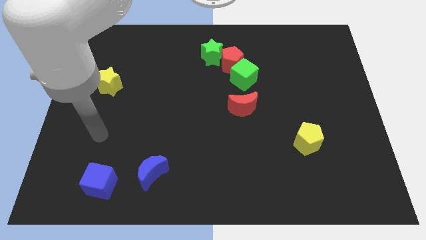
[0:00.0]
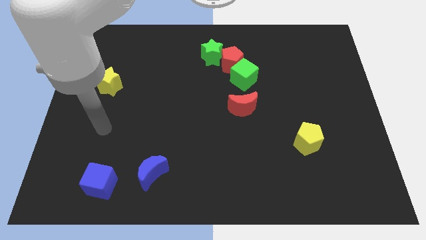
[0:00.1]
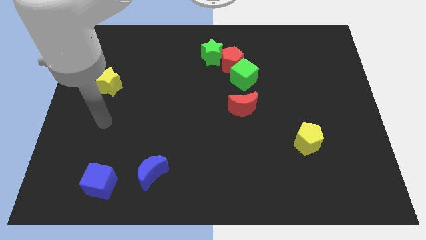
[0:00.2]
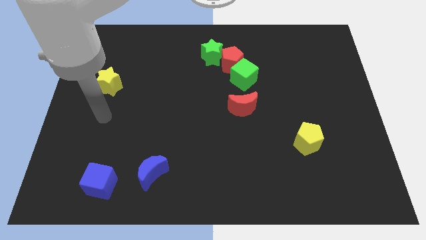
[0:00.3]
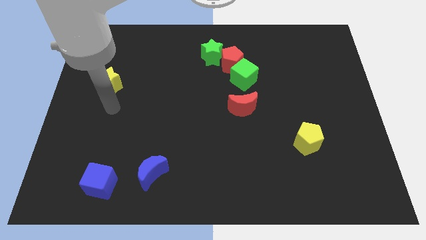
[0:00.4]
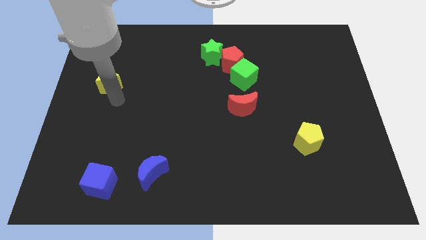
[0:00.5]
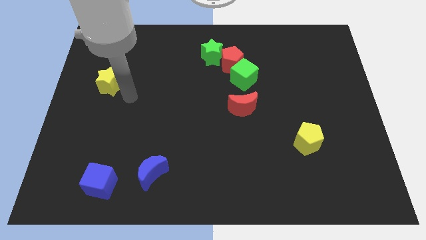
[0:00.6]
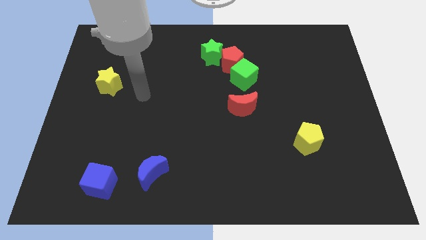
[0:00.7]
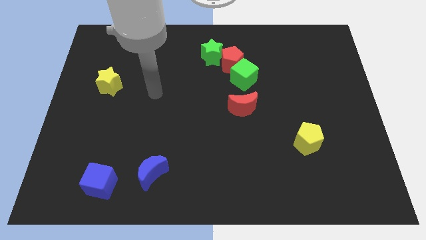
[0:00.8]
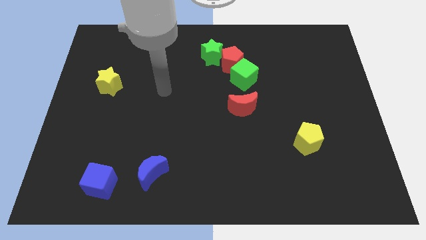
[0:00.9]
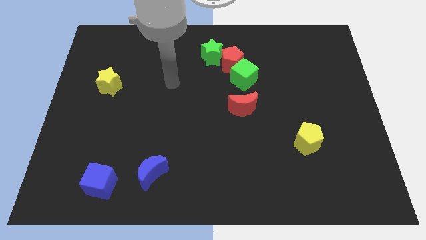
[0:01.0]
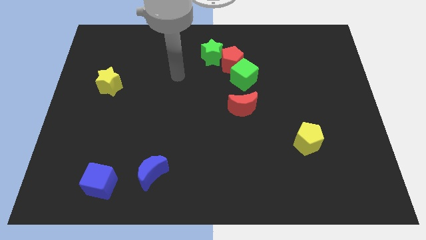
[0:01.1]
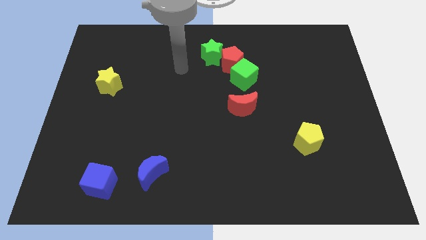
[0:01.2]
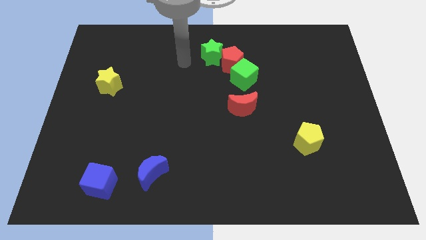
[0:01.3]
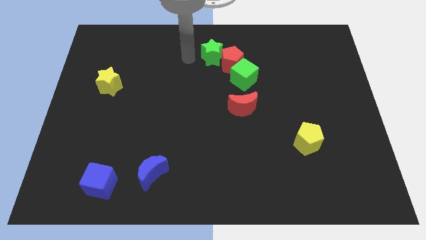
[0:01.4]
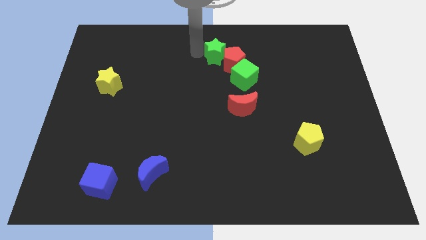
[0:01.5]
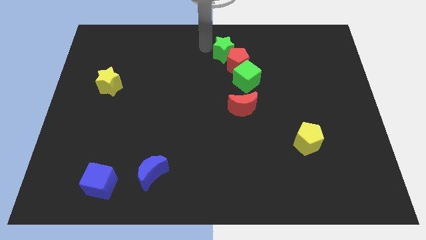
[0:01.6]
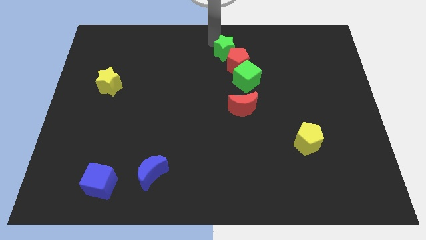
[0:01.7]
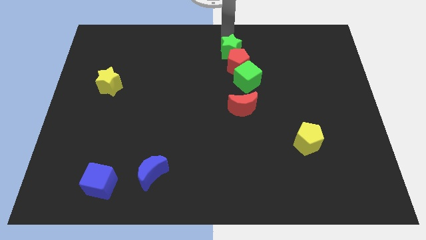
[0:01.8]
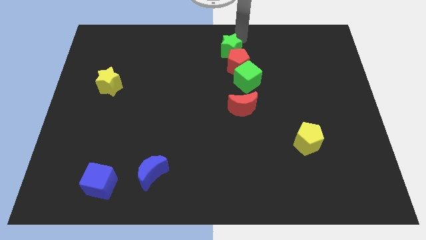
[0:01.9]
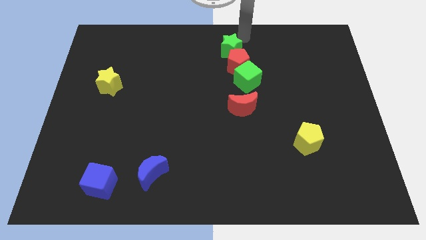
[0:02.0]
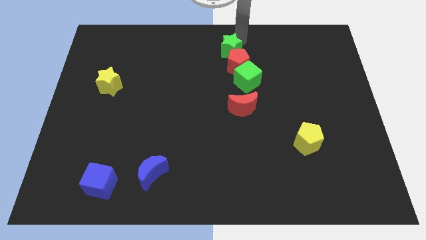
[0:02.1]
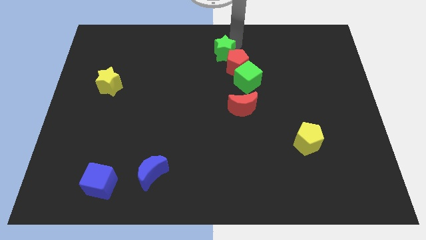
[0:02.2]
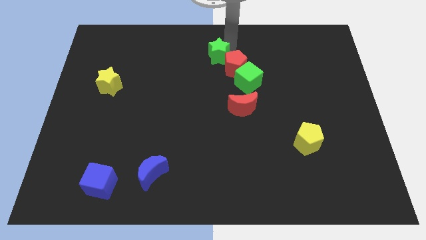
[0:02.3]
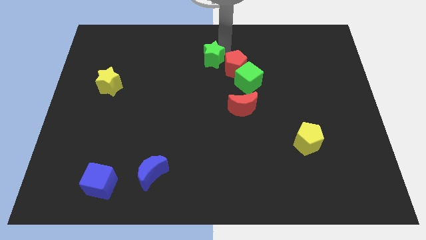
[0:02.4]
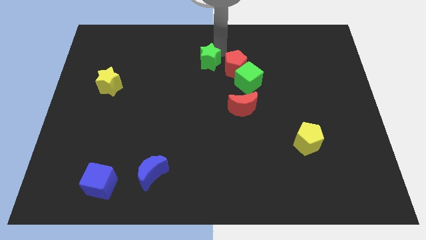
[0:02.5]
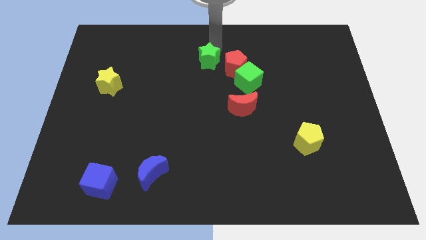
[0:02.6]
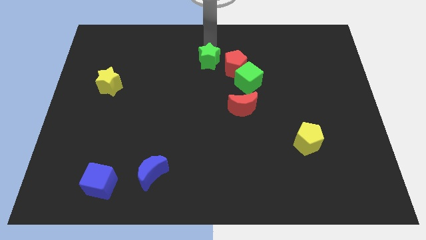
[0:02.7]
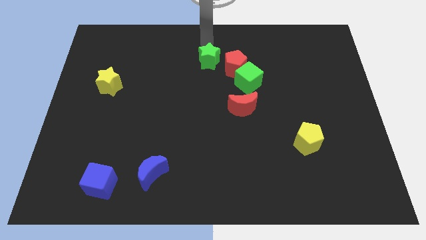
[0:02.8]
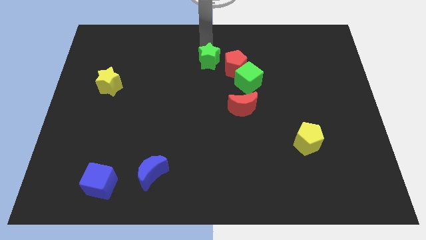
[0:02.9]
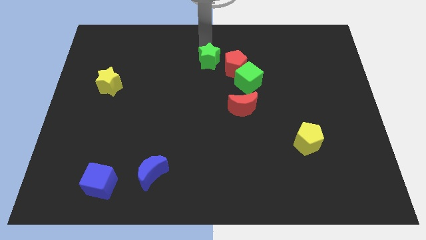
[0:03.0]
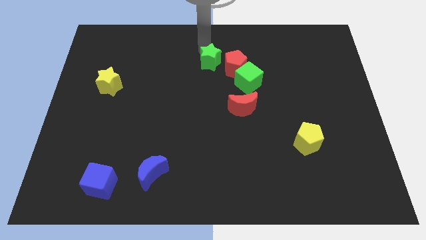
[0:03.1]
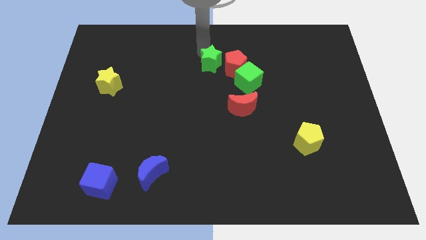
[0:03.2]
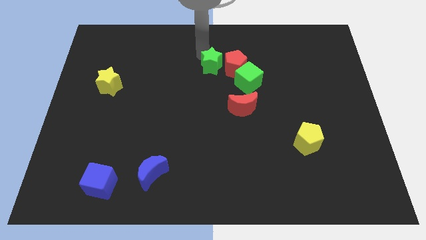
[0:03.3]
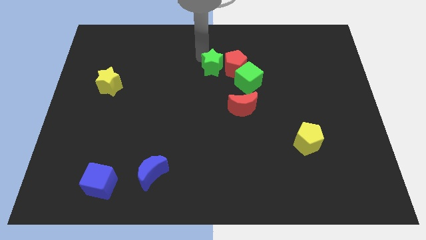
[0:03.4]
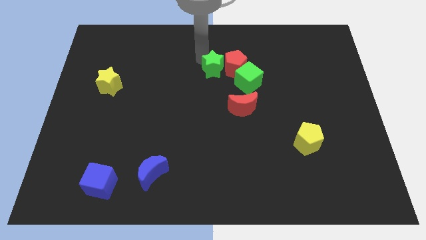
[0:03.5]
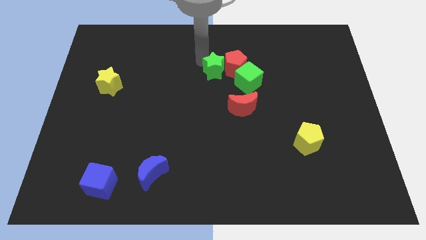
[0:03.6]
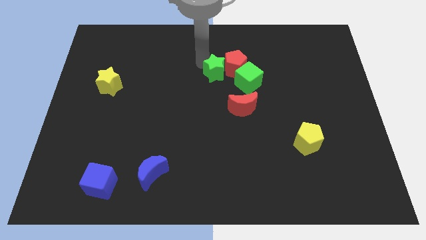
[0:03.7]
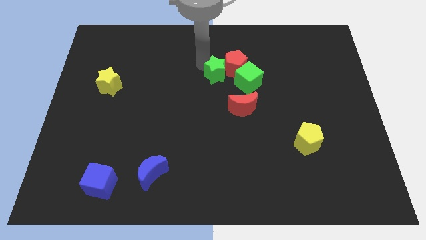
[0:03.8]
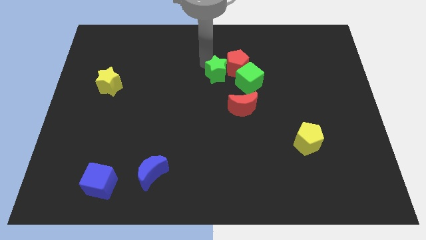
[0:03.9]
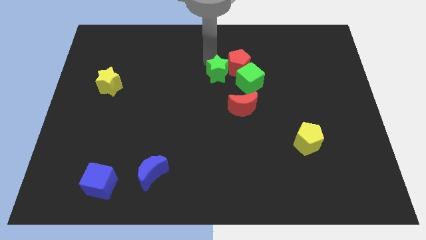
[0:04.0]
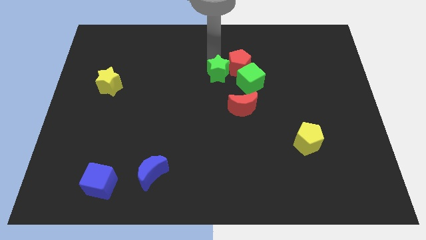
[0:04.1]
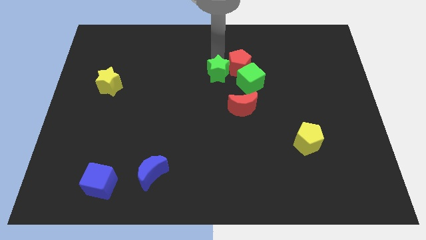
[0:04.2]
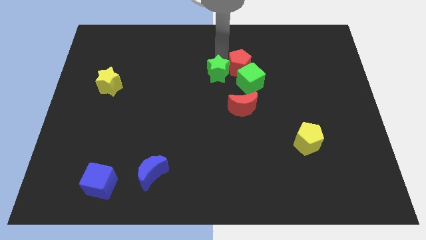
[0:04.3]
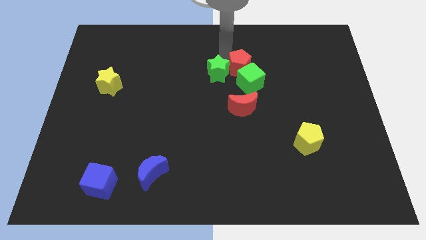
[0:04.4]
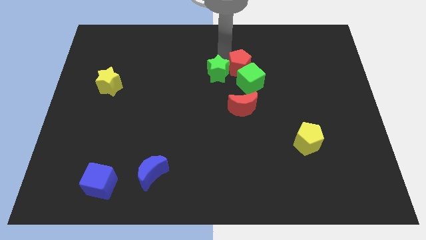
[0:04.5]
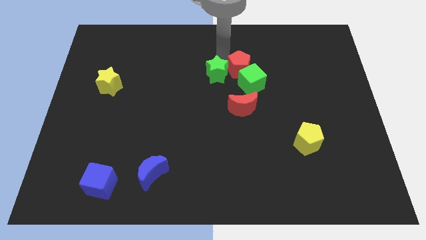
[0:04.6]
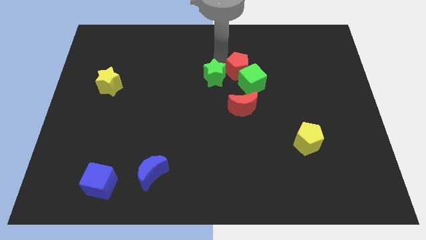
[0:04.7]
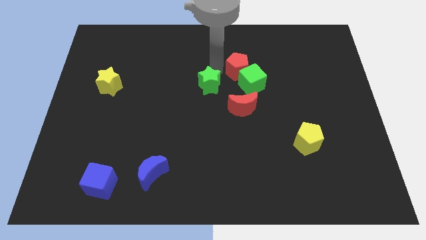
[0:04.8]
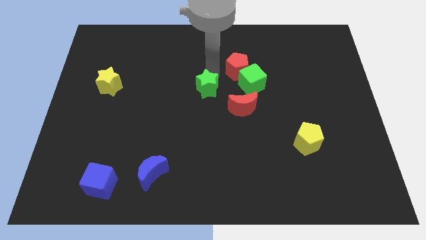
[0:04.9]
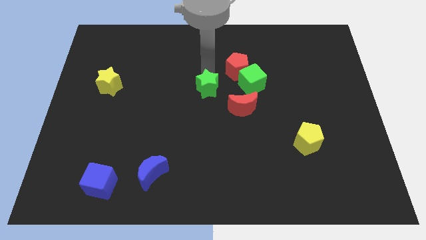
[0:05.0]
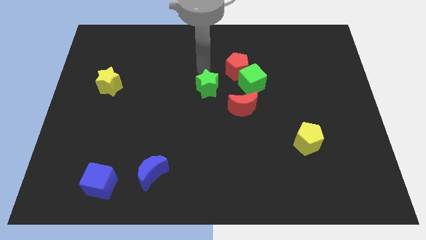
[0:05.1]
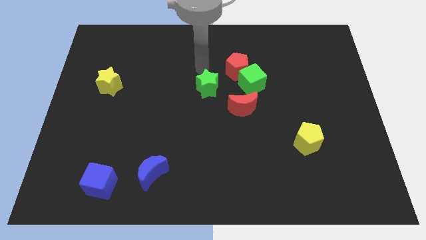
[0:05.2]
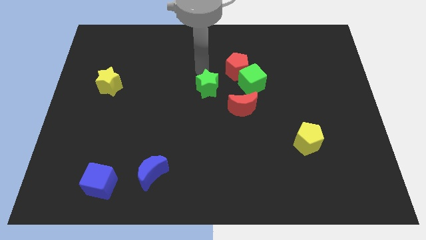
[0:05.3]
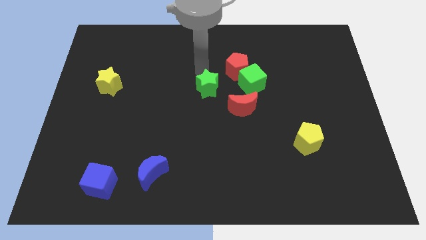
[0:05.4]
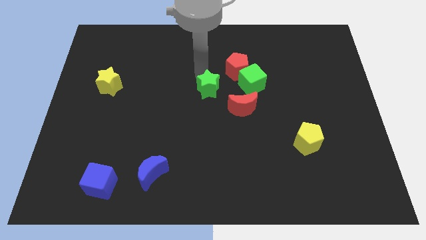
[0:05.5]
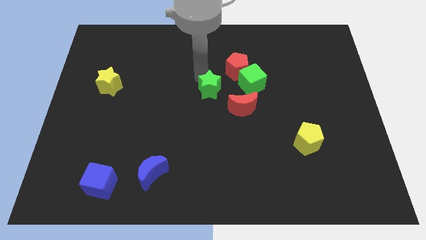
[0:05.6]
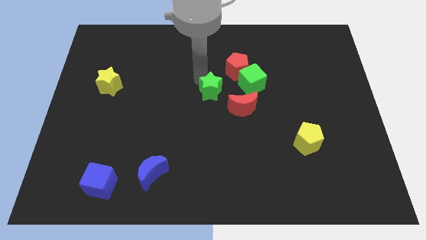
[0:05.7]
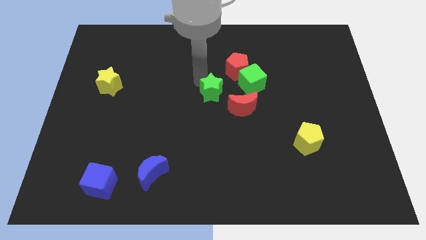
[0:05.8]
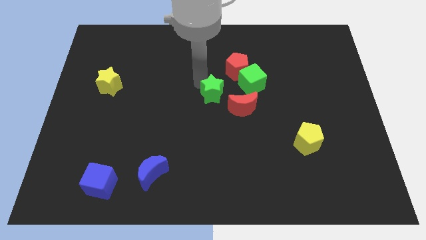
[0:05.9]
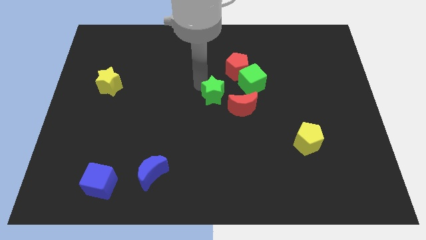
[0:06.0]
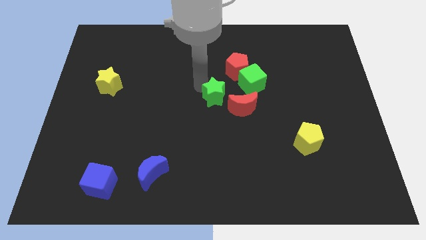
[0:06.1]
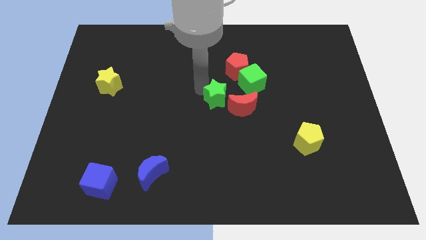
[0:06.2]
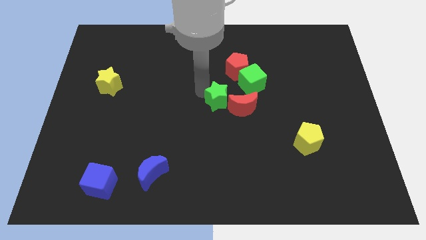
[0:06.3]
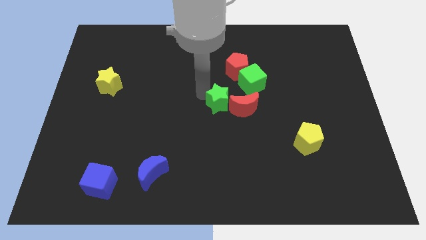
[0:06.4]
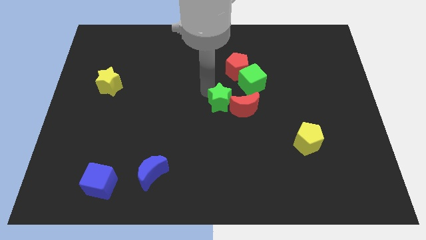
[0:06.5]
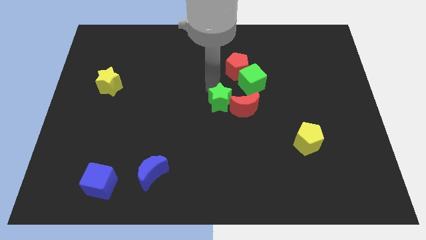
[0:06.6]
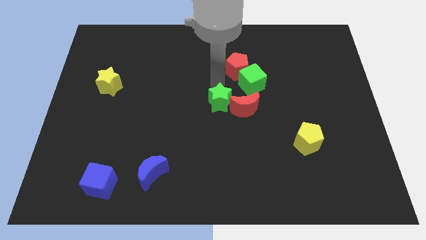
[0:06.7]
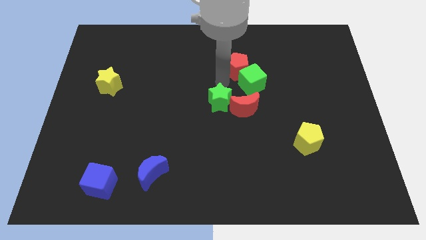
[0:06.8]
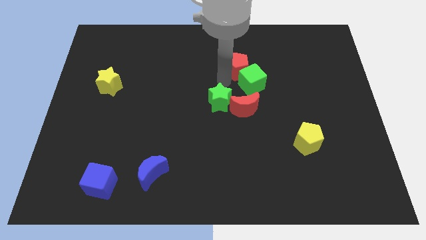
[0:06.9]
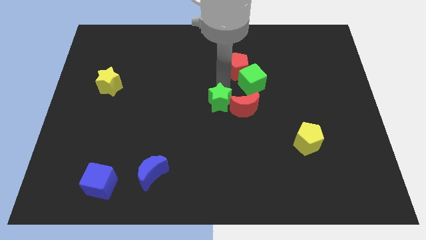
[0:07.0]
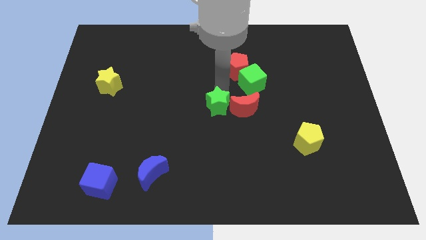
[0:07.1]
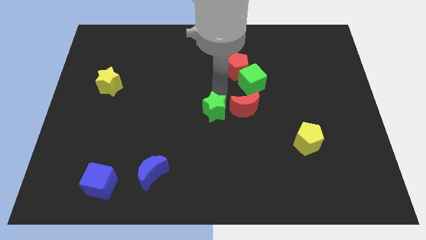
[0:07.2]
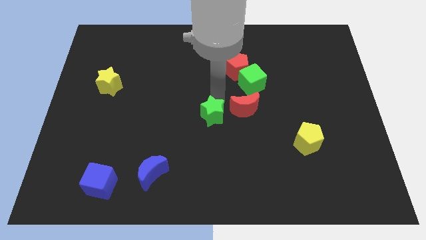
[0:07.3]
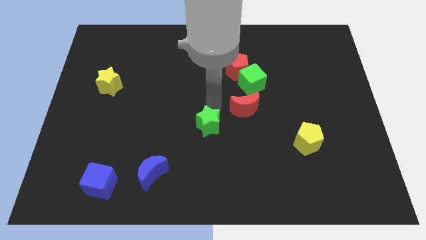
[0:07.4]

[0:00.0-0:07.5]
move the green star downwards

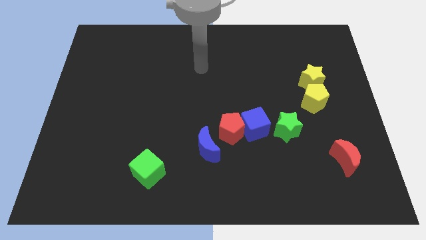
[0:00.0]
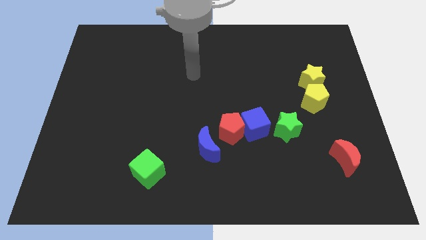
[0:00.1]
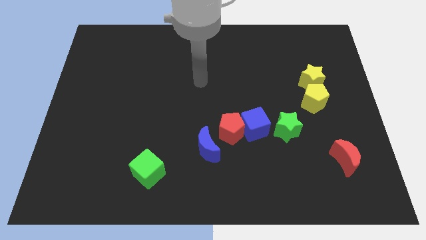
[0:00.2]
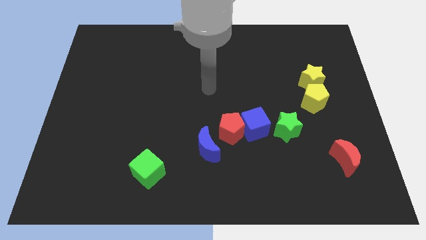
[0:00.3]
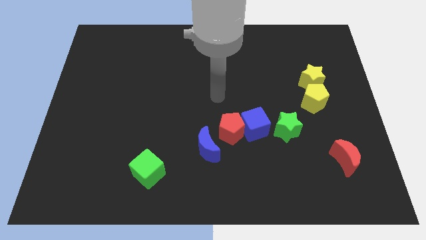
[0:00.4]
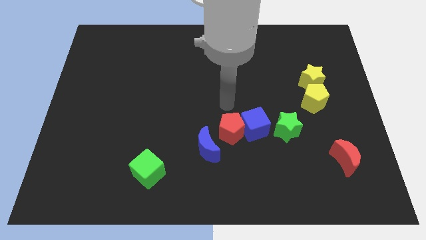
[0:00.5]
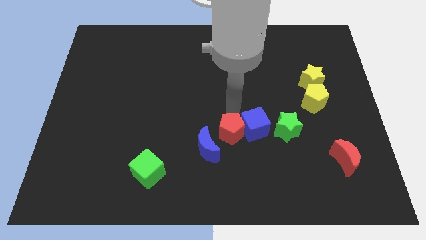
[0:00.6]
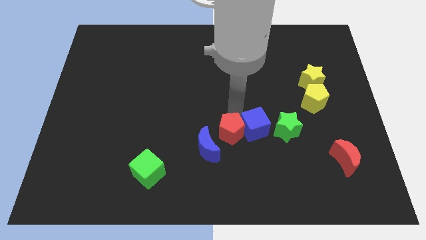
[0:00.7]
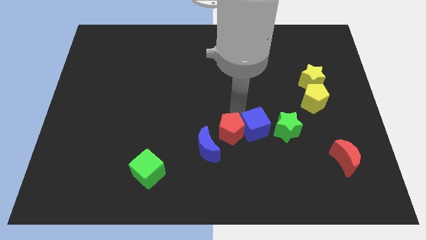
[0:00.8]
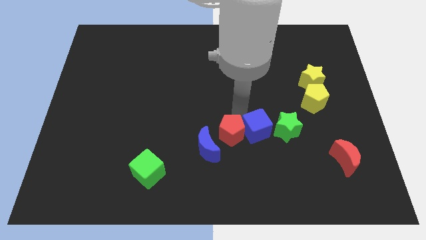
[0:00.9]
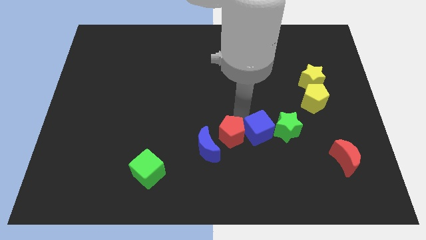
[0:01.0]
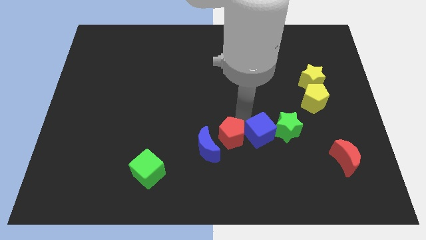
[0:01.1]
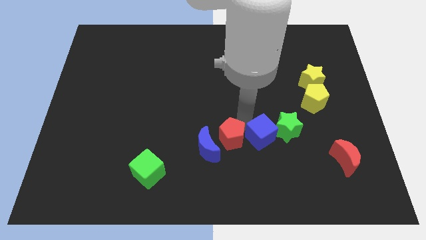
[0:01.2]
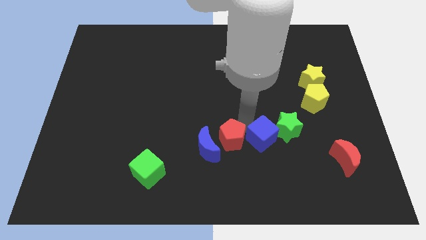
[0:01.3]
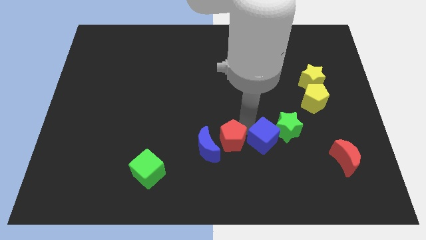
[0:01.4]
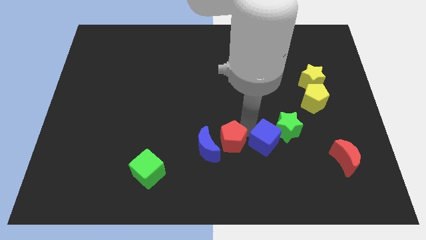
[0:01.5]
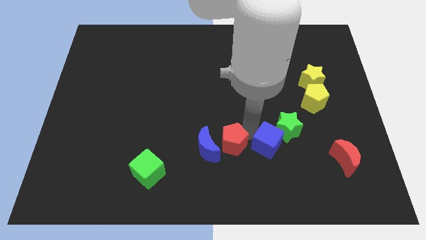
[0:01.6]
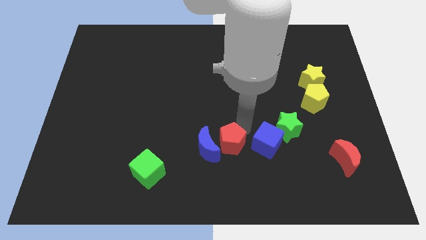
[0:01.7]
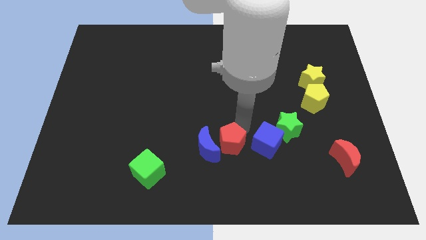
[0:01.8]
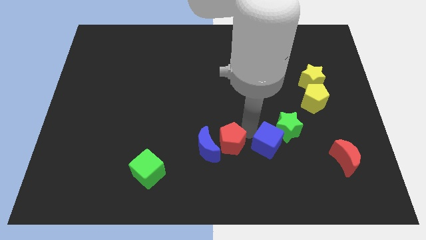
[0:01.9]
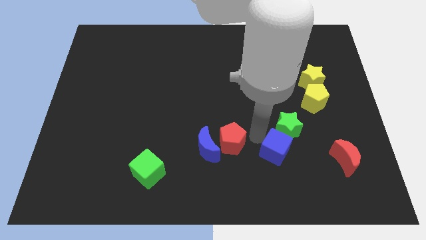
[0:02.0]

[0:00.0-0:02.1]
slide the blue cube down and right somewhat
